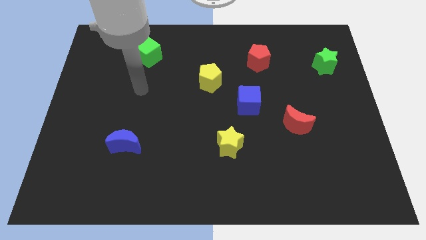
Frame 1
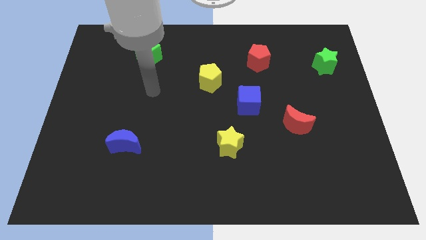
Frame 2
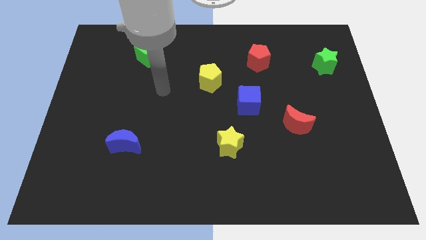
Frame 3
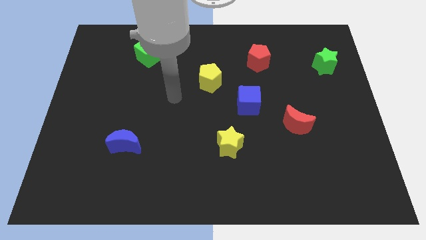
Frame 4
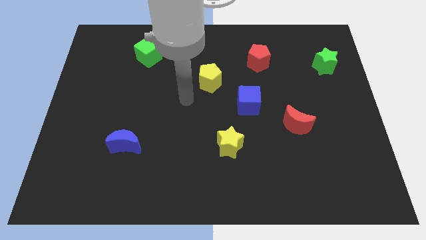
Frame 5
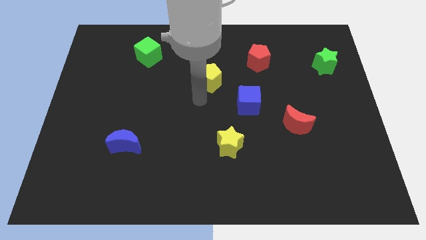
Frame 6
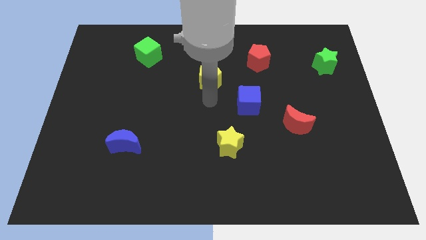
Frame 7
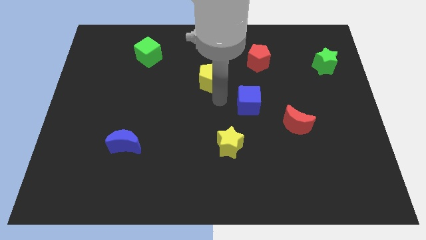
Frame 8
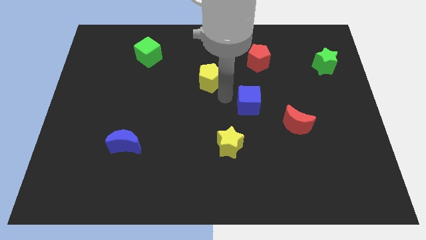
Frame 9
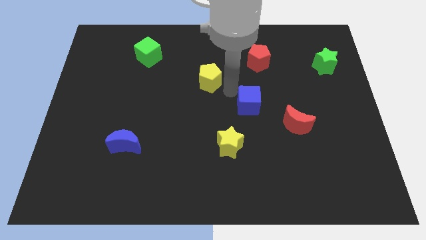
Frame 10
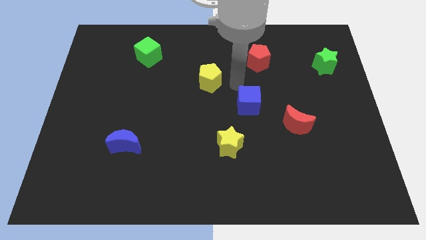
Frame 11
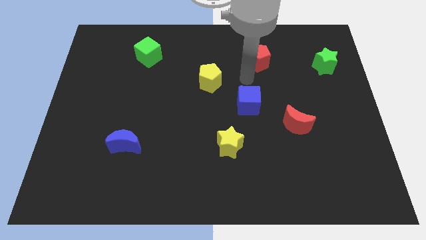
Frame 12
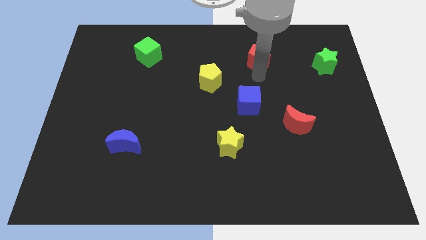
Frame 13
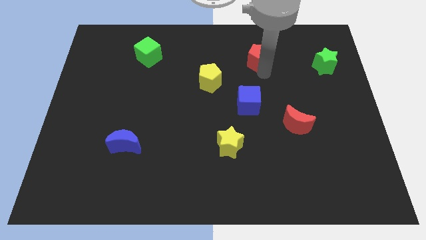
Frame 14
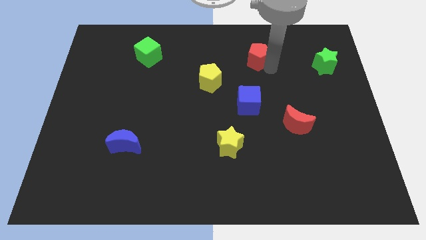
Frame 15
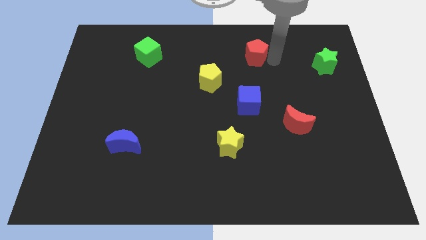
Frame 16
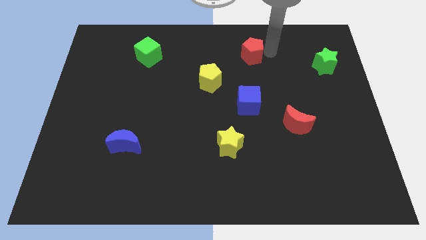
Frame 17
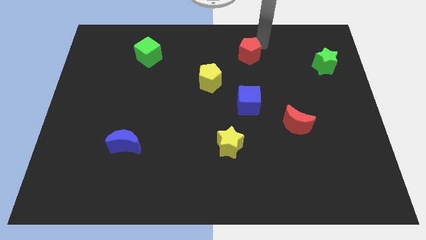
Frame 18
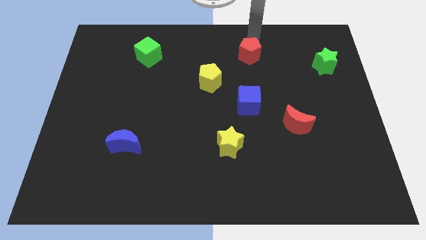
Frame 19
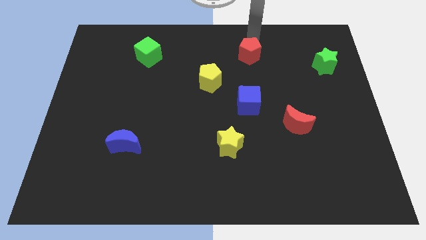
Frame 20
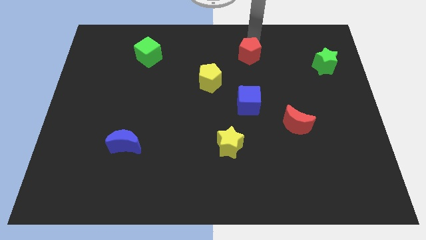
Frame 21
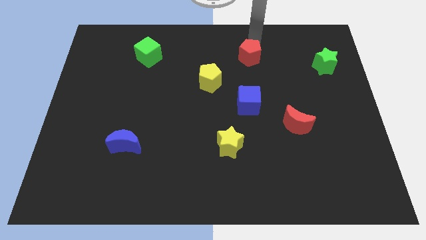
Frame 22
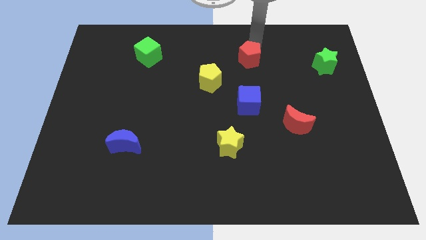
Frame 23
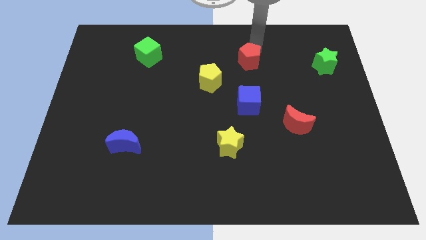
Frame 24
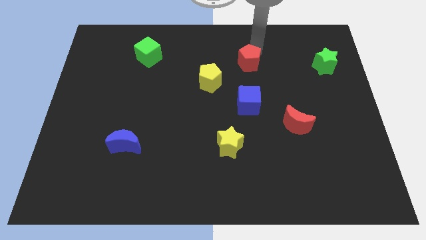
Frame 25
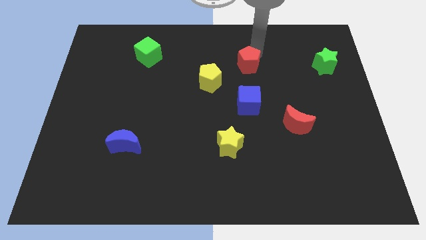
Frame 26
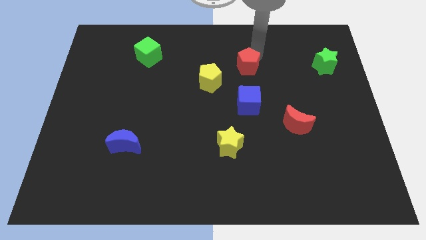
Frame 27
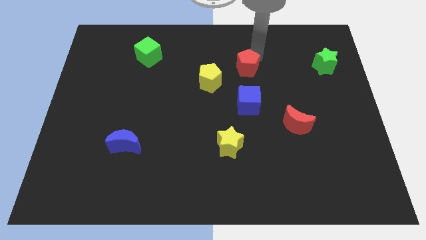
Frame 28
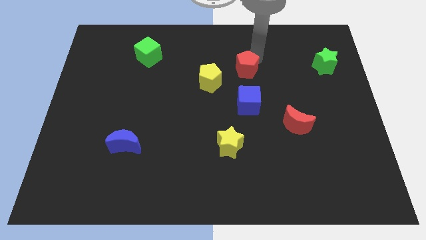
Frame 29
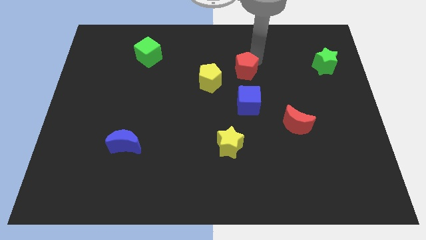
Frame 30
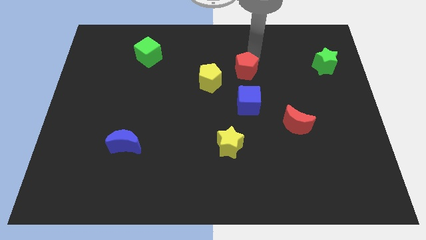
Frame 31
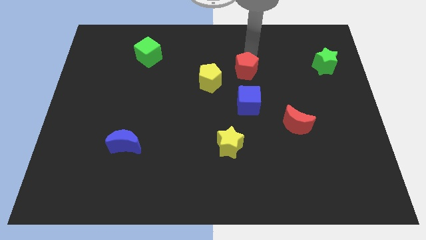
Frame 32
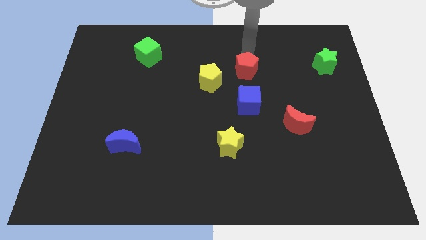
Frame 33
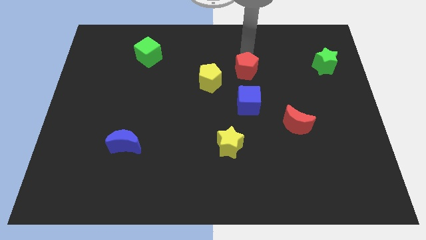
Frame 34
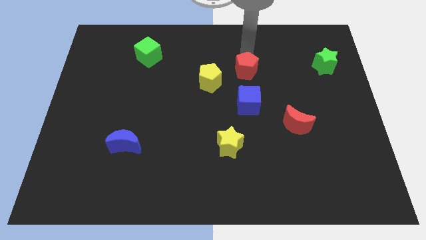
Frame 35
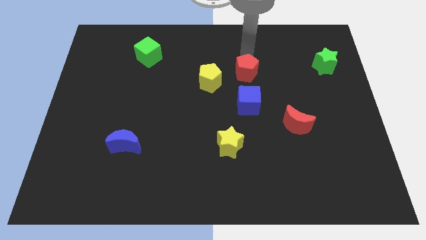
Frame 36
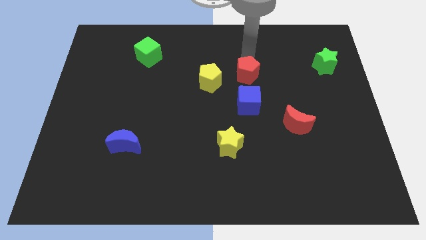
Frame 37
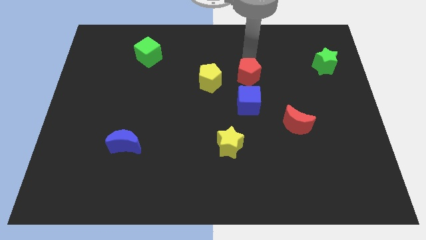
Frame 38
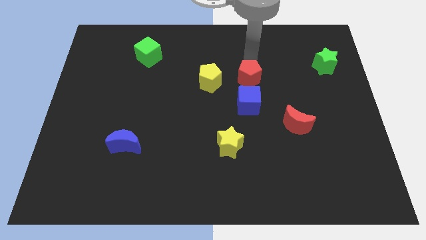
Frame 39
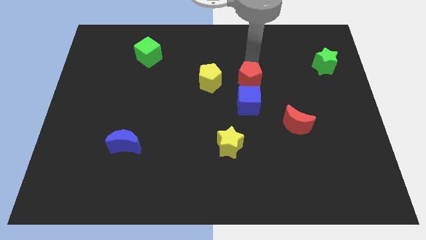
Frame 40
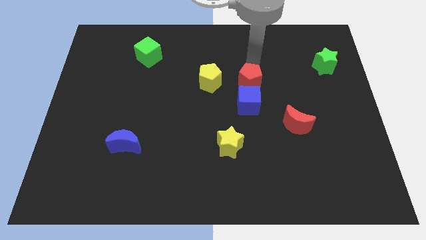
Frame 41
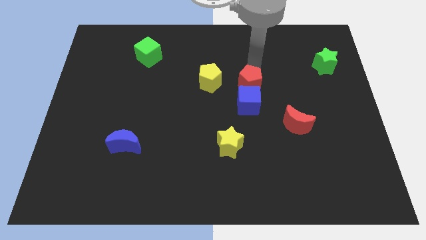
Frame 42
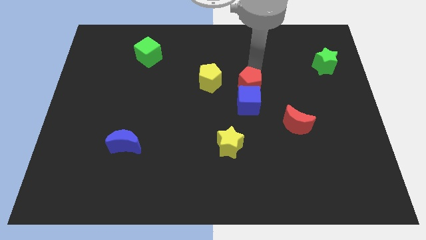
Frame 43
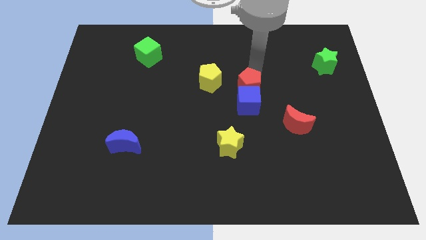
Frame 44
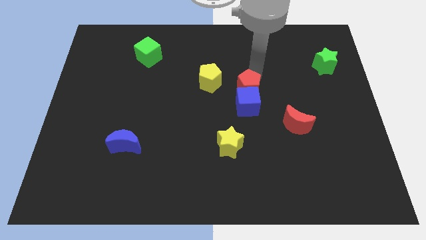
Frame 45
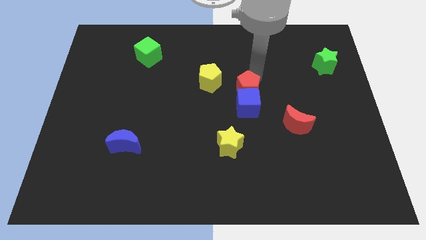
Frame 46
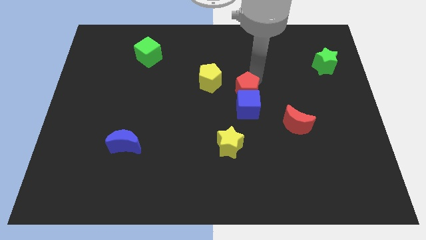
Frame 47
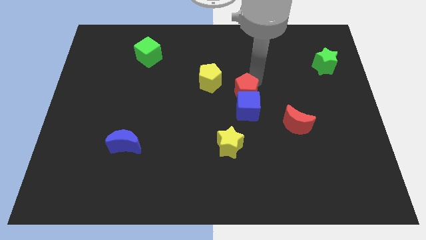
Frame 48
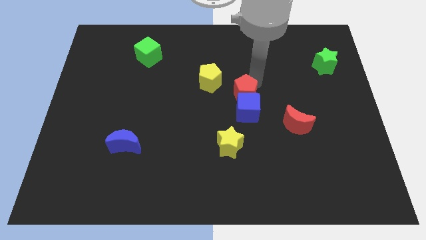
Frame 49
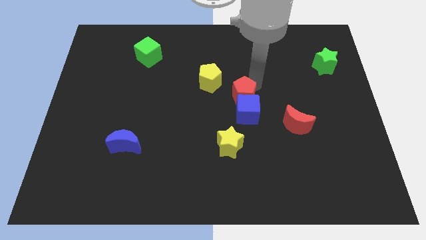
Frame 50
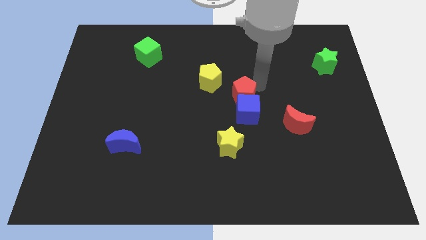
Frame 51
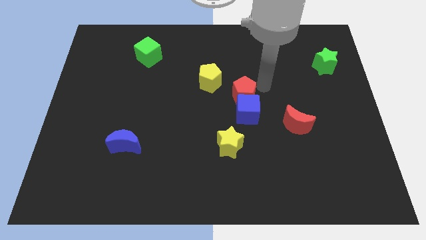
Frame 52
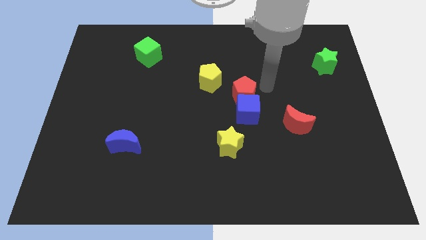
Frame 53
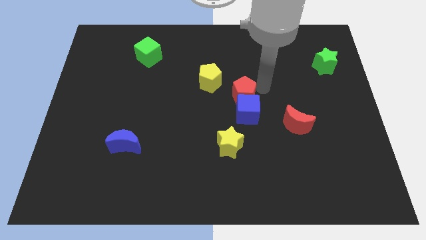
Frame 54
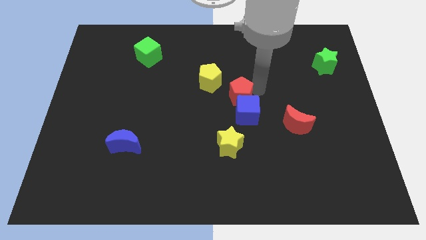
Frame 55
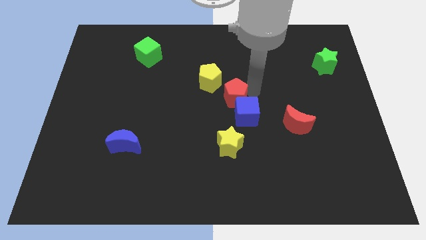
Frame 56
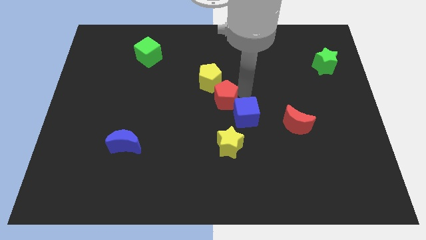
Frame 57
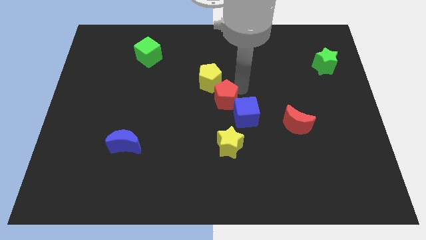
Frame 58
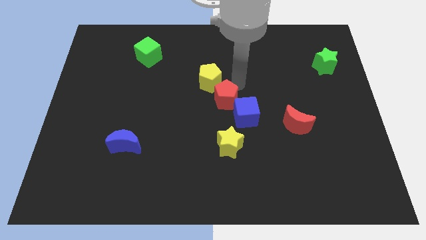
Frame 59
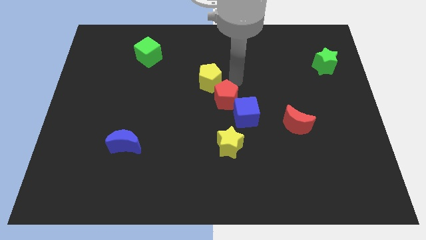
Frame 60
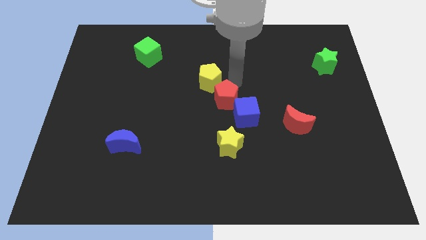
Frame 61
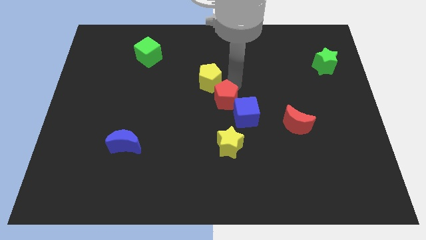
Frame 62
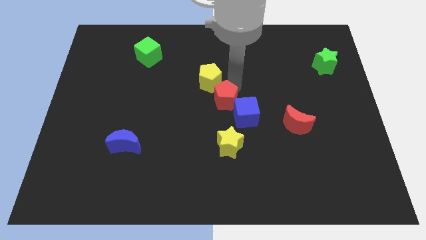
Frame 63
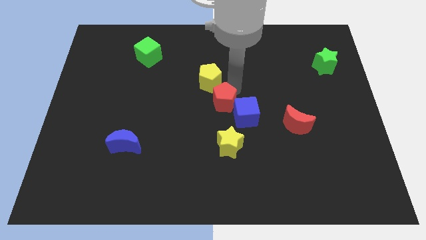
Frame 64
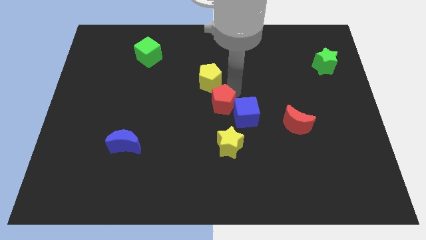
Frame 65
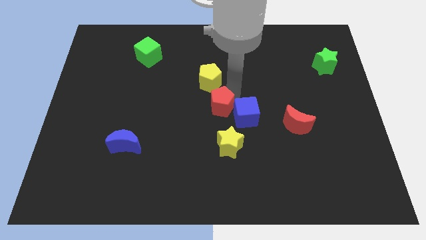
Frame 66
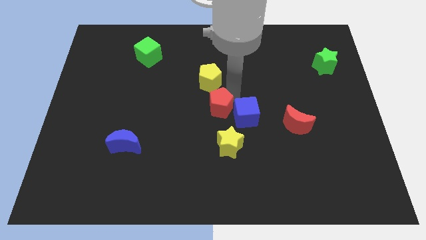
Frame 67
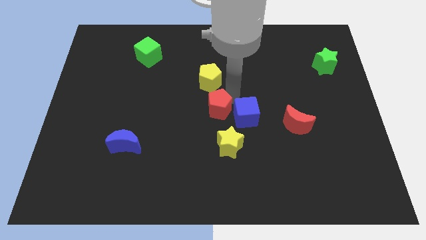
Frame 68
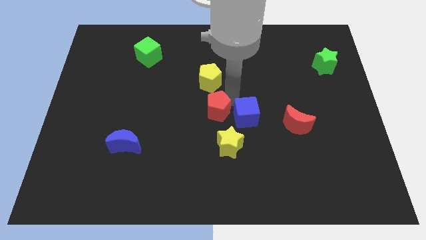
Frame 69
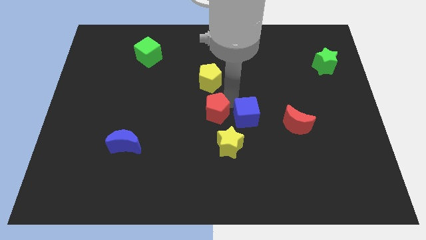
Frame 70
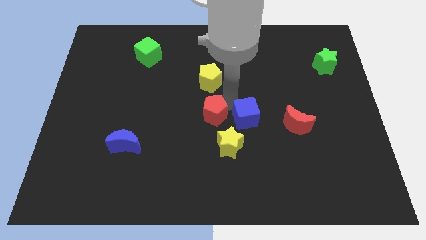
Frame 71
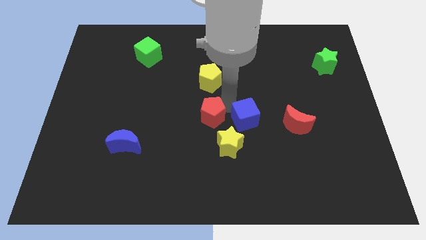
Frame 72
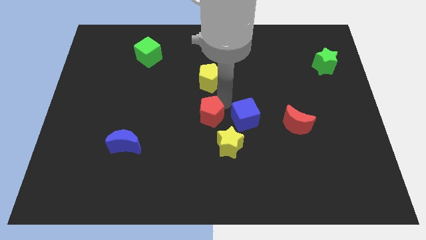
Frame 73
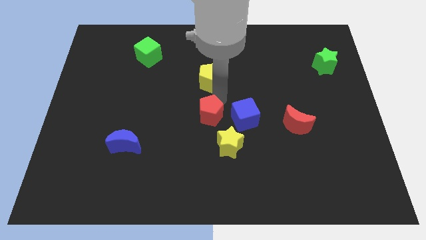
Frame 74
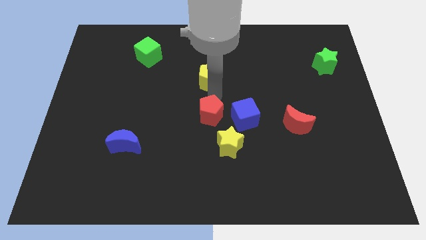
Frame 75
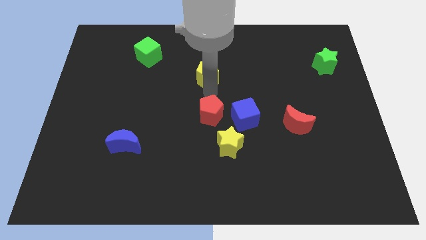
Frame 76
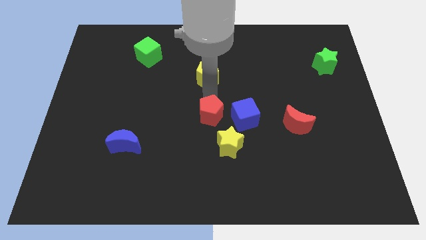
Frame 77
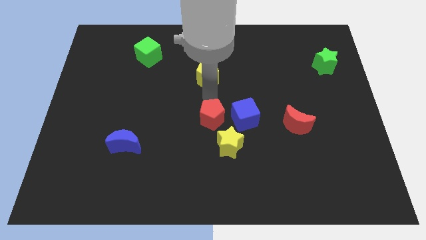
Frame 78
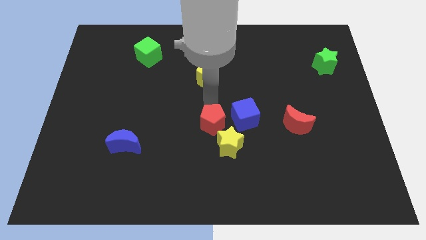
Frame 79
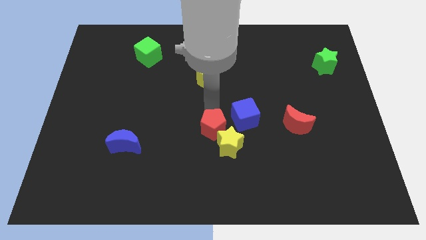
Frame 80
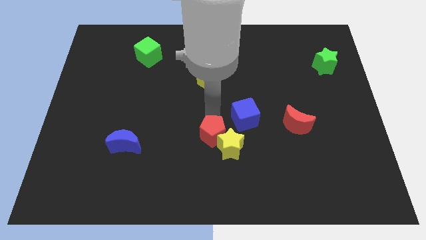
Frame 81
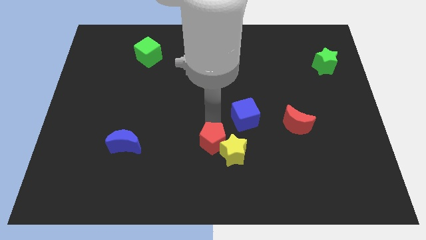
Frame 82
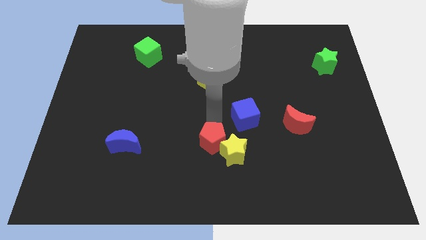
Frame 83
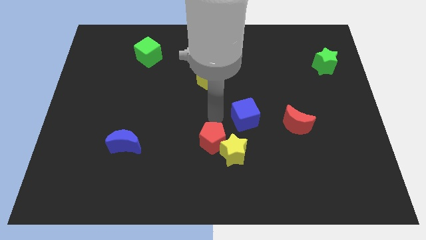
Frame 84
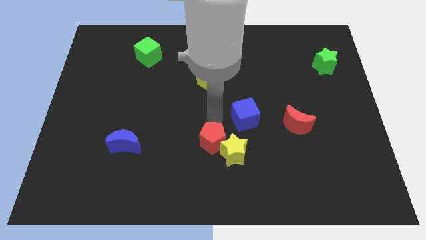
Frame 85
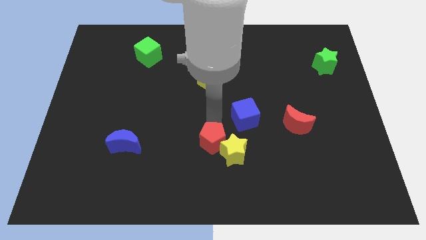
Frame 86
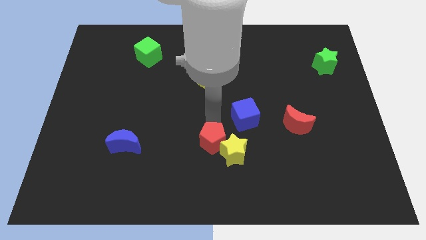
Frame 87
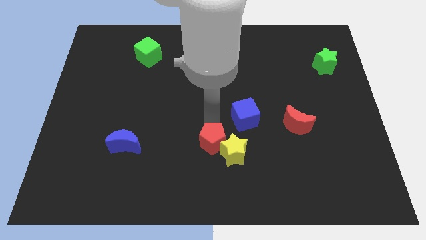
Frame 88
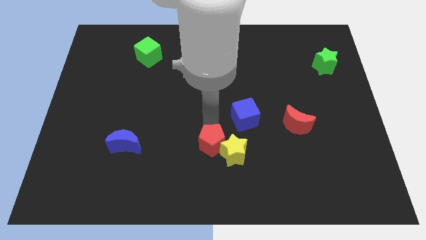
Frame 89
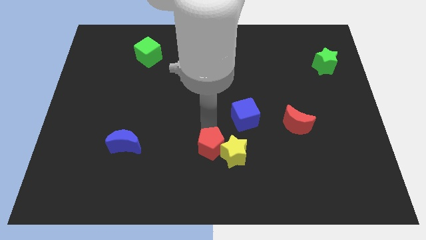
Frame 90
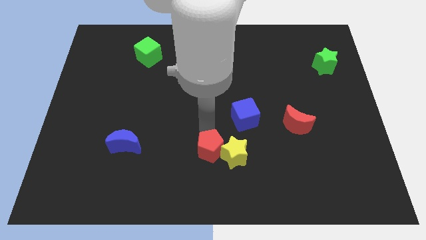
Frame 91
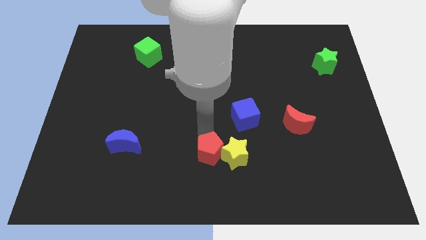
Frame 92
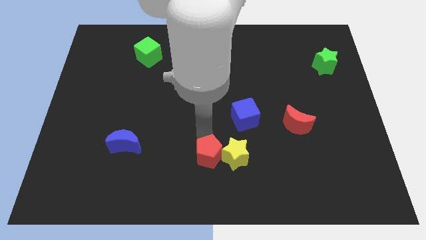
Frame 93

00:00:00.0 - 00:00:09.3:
move the red pentagon to the bottom side
